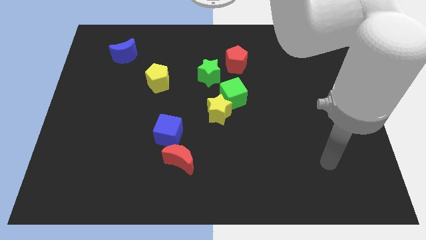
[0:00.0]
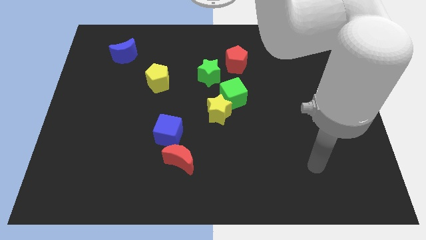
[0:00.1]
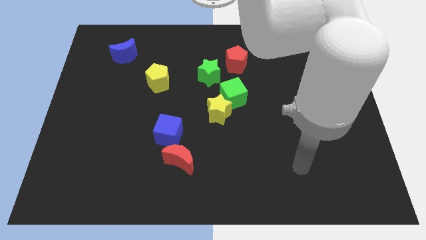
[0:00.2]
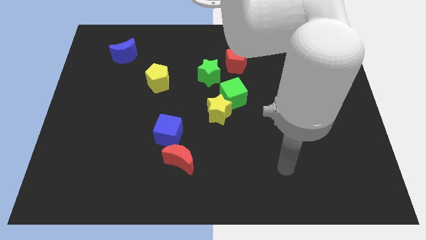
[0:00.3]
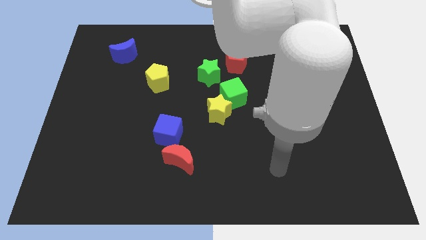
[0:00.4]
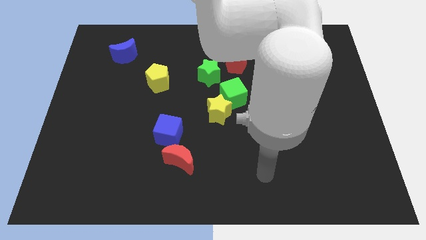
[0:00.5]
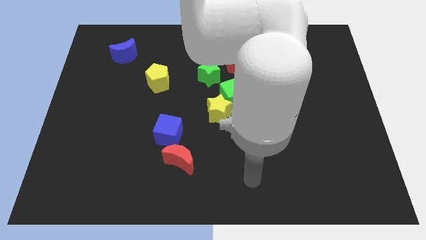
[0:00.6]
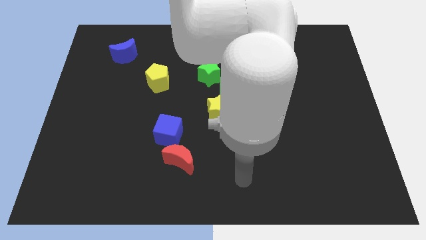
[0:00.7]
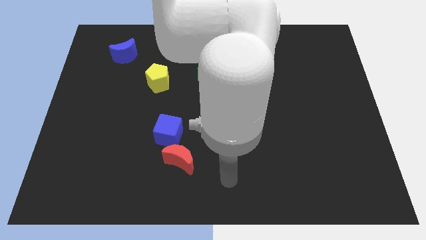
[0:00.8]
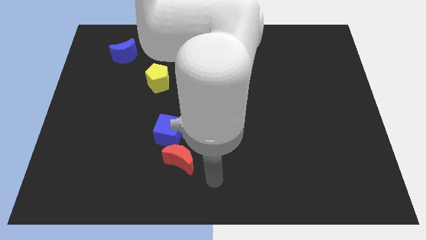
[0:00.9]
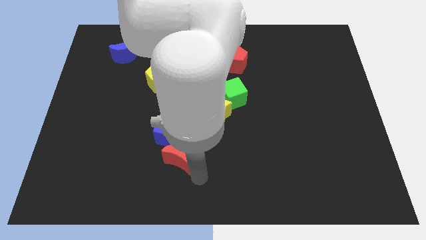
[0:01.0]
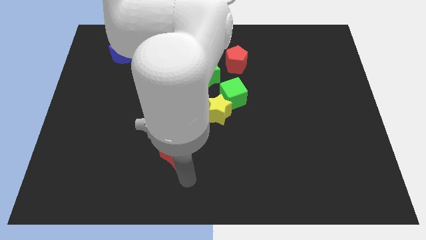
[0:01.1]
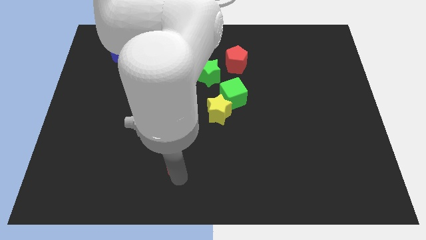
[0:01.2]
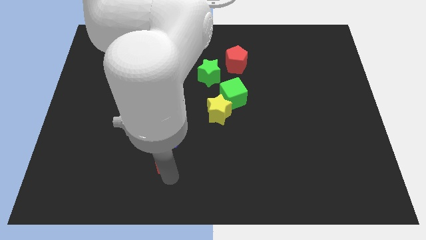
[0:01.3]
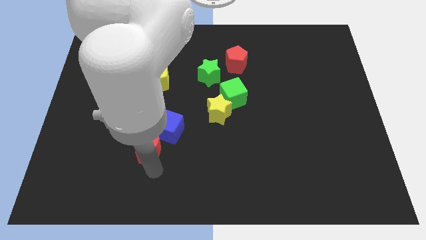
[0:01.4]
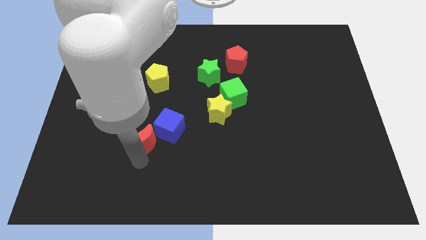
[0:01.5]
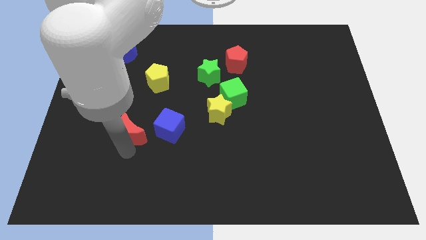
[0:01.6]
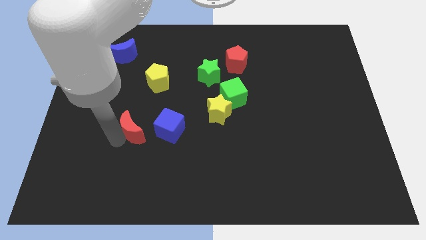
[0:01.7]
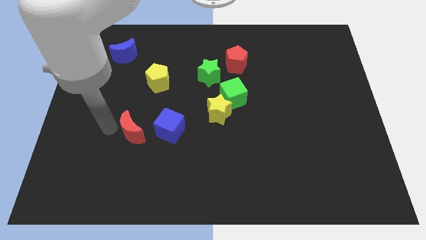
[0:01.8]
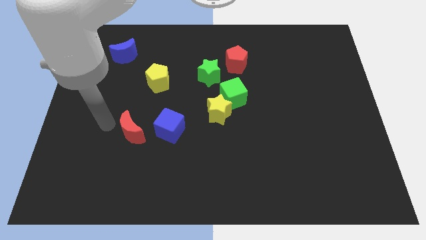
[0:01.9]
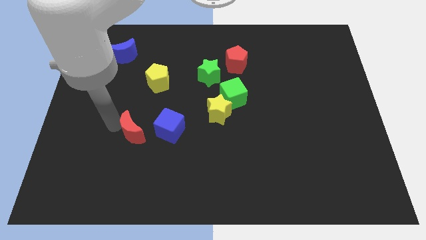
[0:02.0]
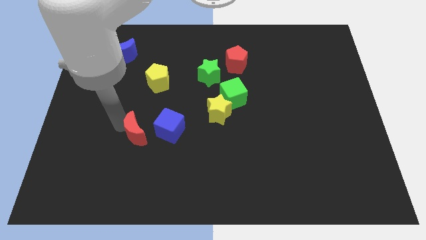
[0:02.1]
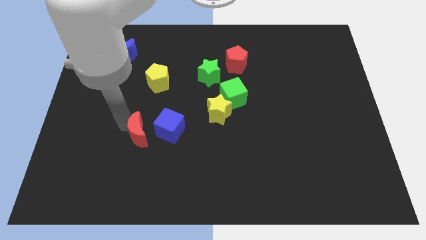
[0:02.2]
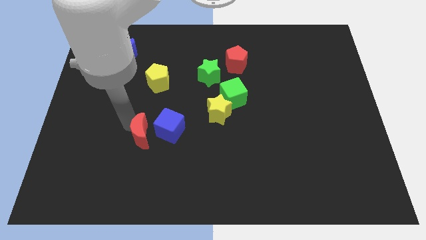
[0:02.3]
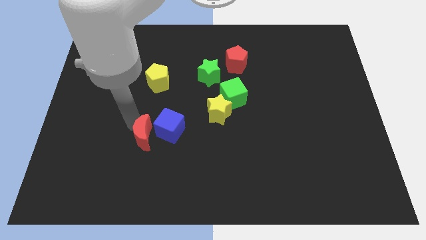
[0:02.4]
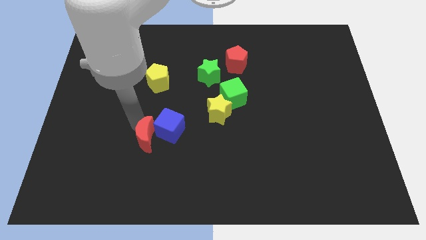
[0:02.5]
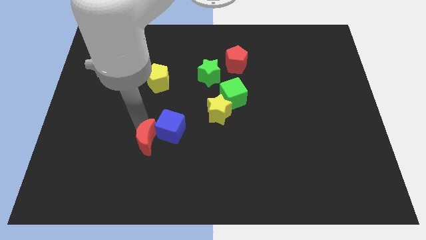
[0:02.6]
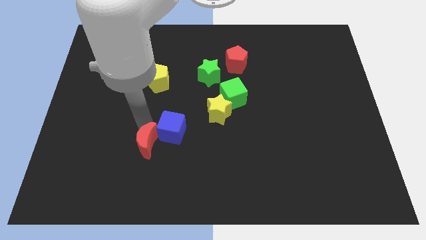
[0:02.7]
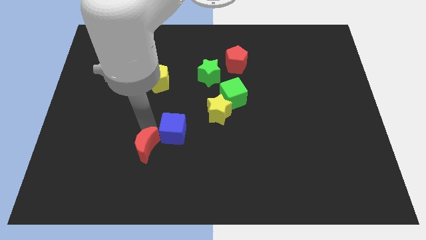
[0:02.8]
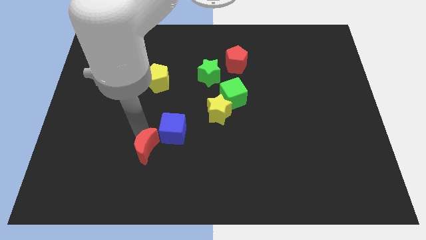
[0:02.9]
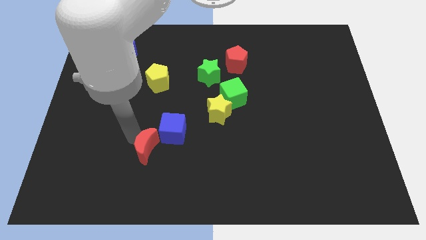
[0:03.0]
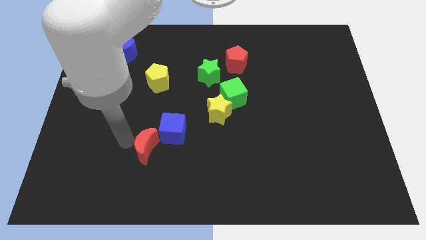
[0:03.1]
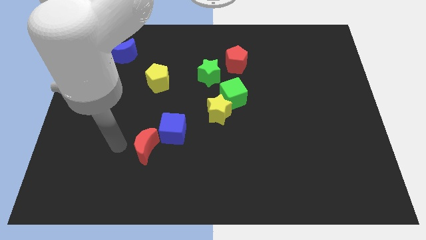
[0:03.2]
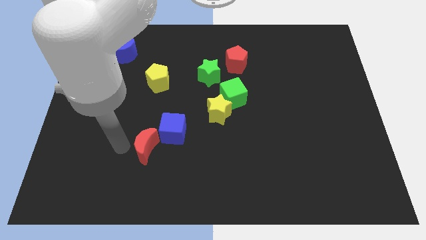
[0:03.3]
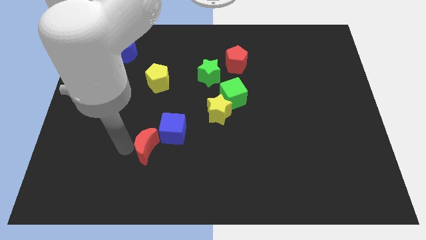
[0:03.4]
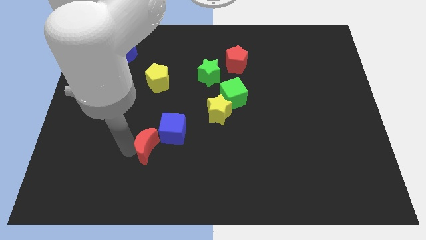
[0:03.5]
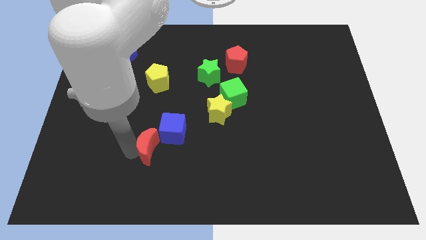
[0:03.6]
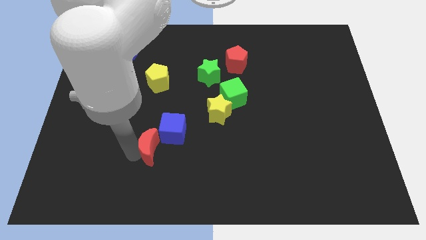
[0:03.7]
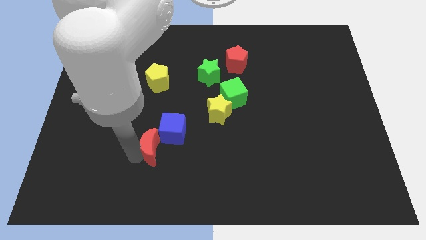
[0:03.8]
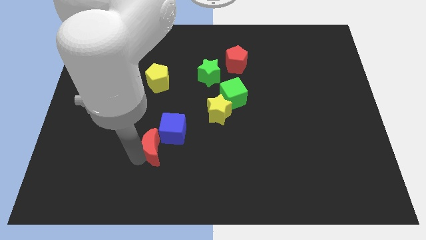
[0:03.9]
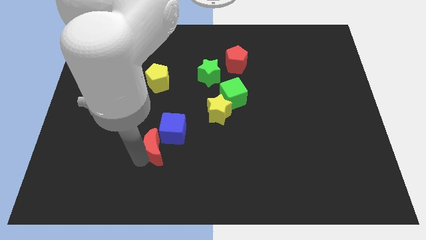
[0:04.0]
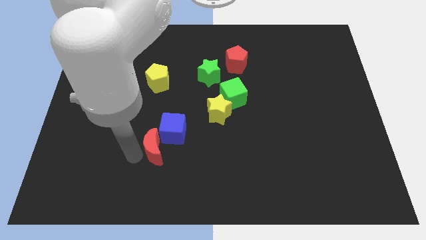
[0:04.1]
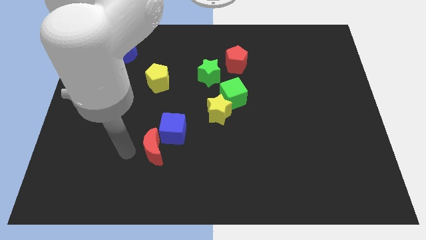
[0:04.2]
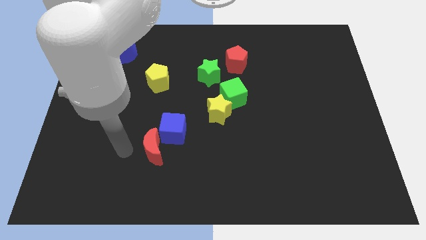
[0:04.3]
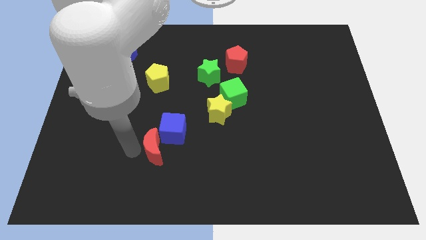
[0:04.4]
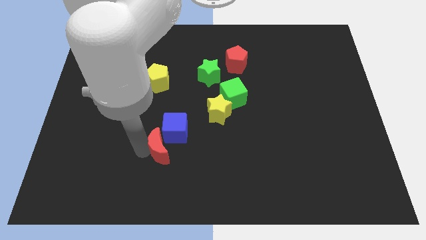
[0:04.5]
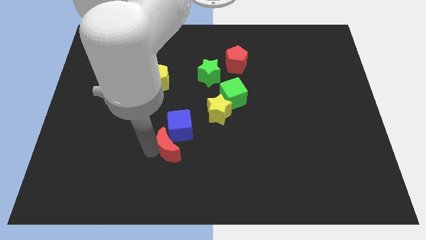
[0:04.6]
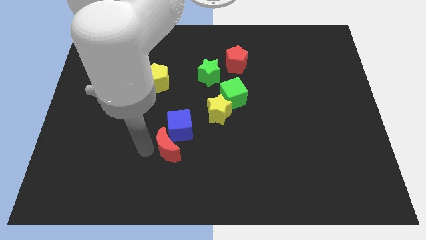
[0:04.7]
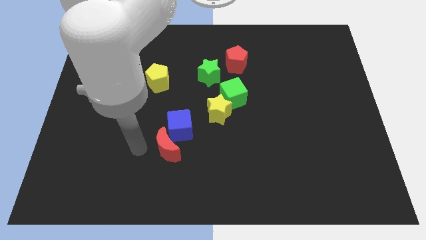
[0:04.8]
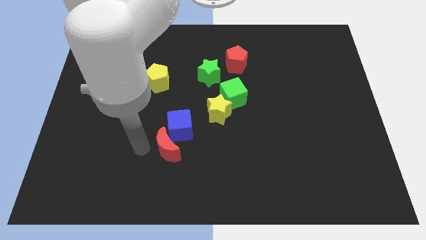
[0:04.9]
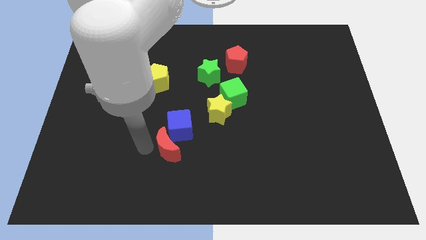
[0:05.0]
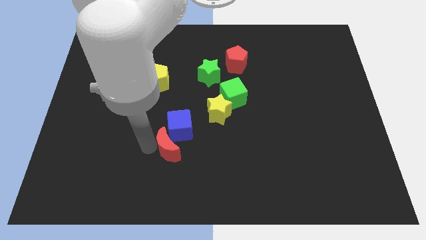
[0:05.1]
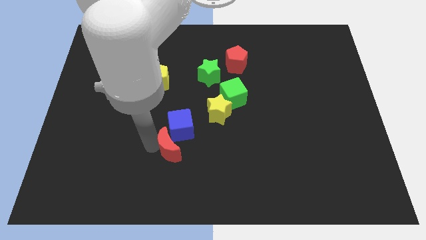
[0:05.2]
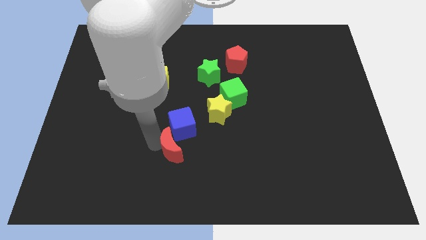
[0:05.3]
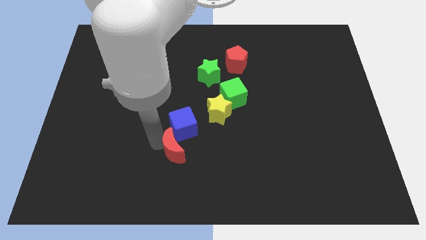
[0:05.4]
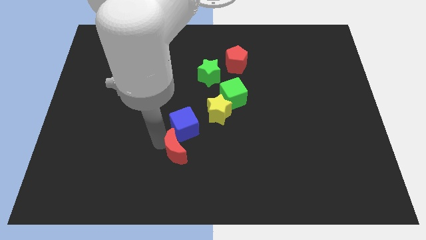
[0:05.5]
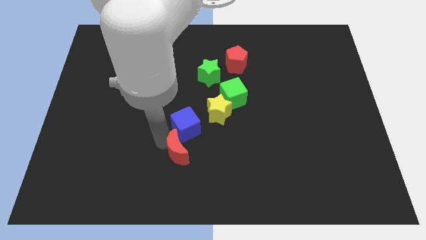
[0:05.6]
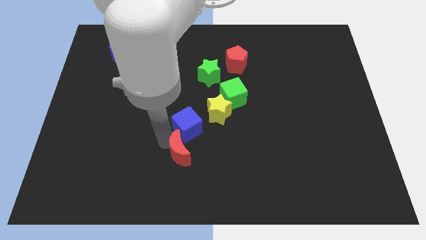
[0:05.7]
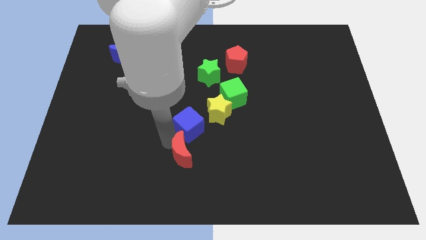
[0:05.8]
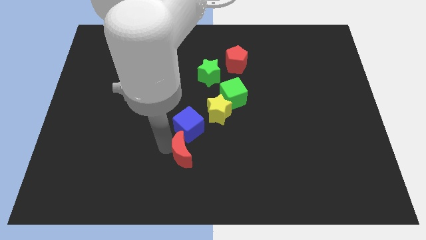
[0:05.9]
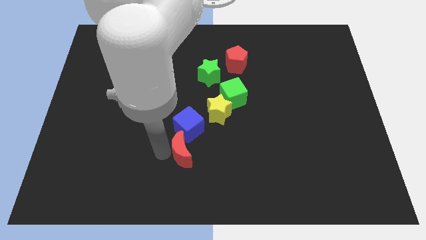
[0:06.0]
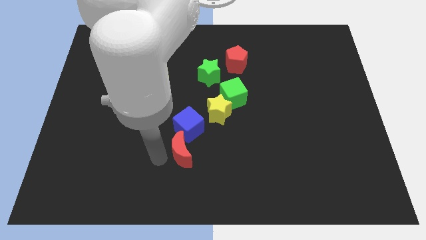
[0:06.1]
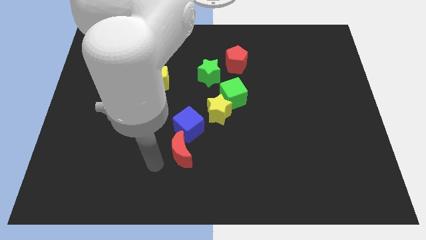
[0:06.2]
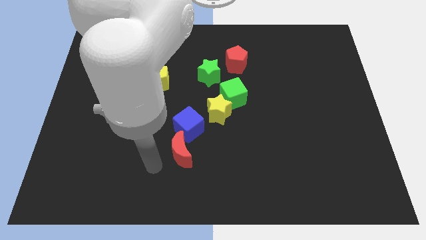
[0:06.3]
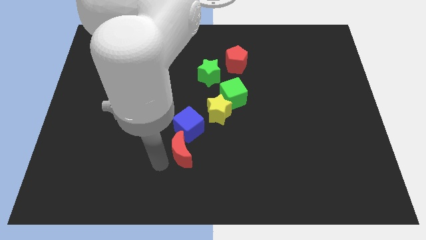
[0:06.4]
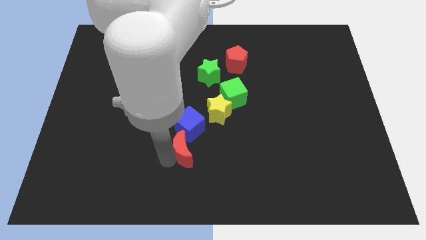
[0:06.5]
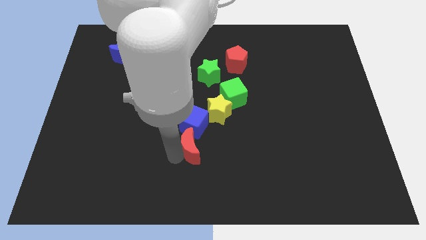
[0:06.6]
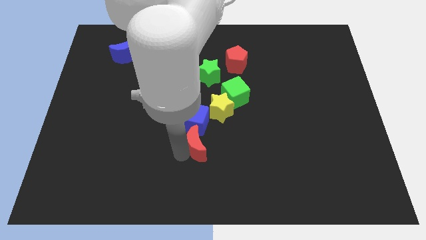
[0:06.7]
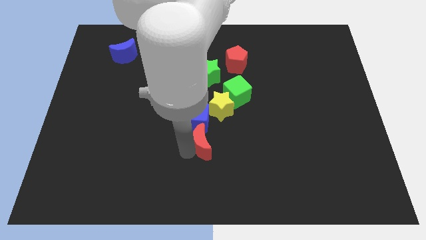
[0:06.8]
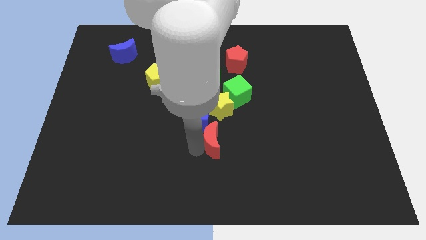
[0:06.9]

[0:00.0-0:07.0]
move the red moon upwards and to the right diagonally slightly

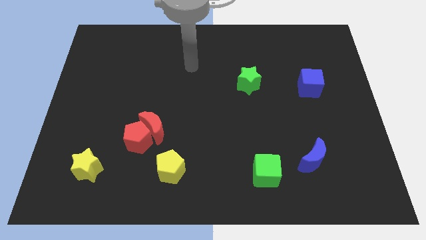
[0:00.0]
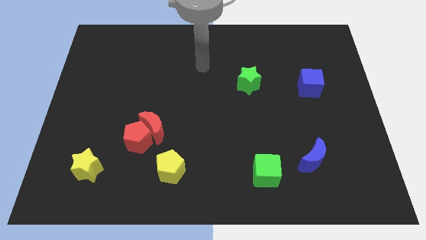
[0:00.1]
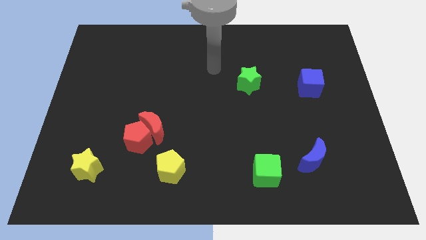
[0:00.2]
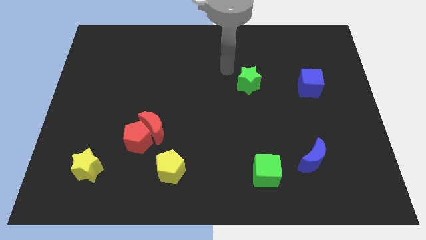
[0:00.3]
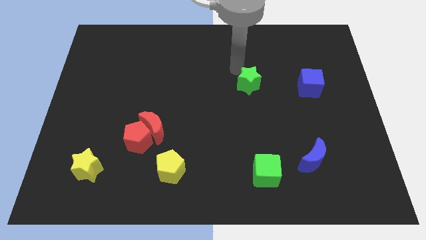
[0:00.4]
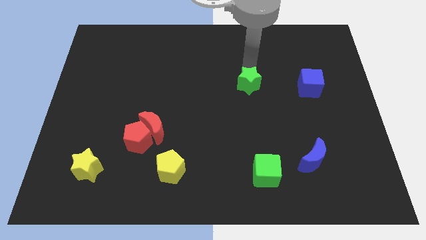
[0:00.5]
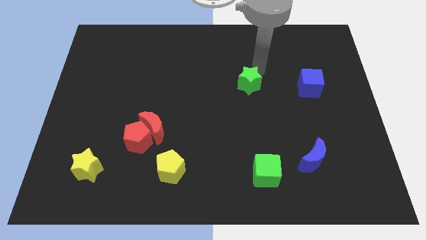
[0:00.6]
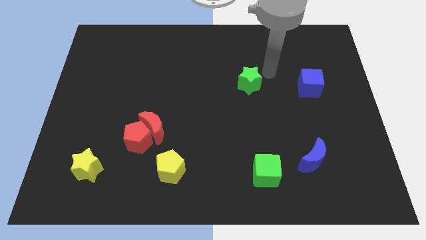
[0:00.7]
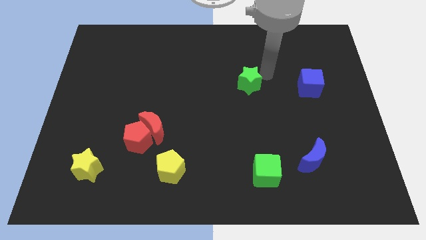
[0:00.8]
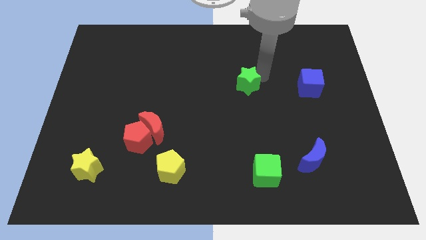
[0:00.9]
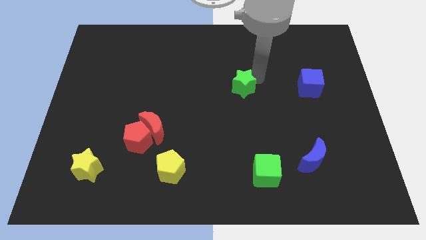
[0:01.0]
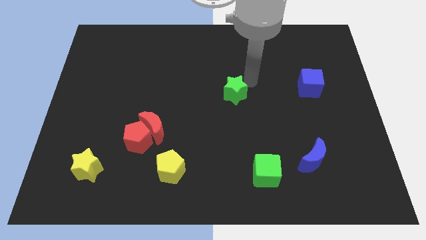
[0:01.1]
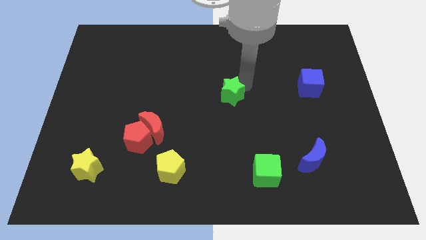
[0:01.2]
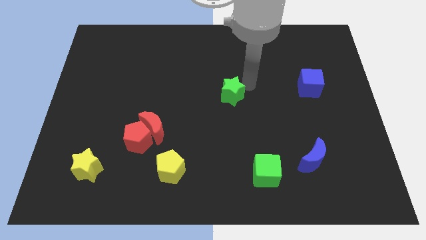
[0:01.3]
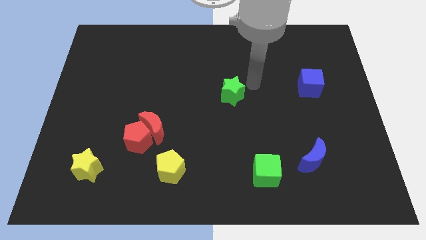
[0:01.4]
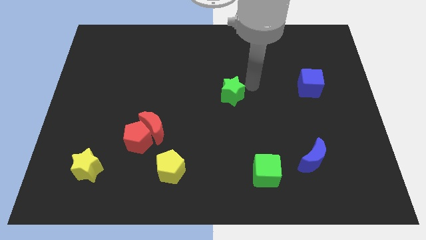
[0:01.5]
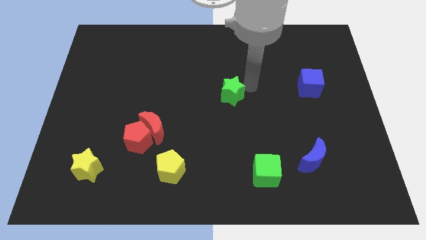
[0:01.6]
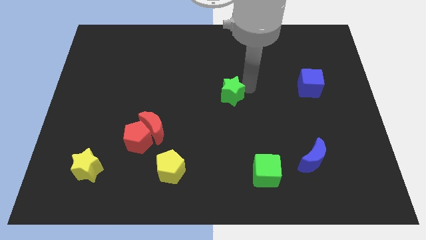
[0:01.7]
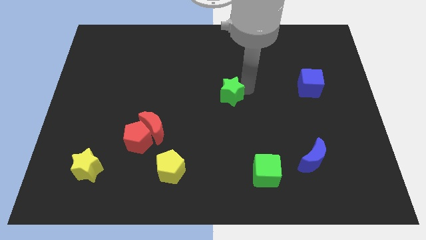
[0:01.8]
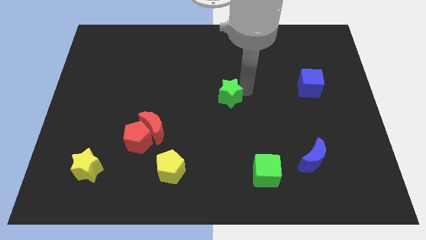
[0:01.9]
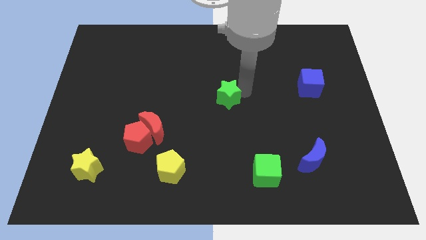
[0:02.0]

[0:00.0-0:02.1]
push the green star slightly down and then to the left
